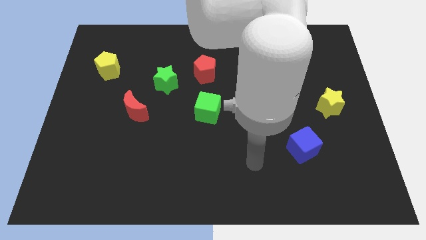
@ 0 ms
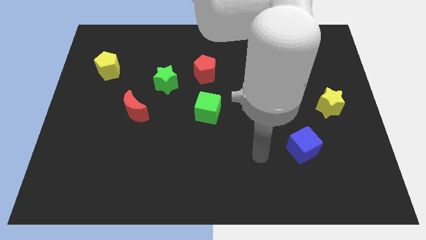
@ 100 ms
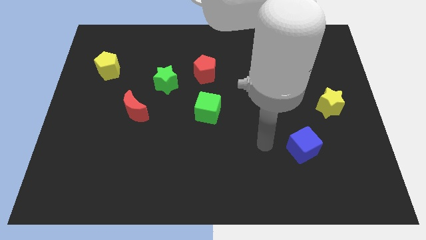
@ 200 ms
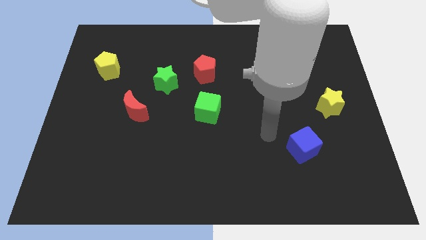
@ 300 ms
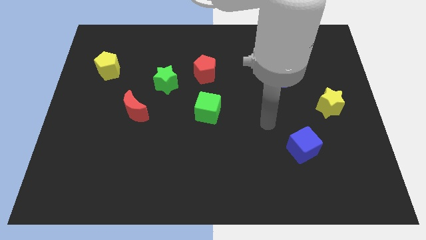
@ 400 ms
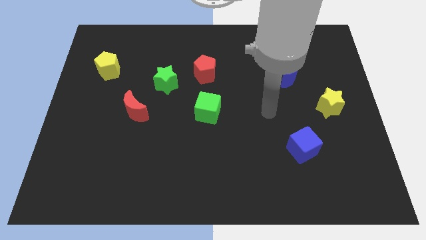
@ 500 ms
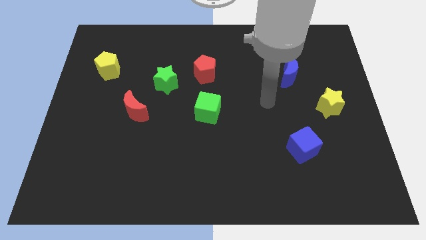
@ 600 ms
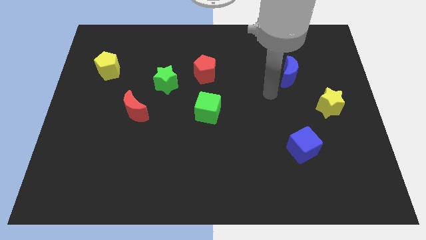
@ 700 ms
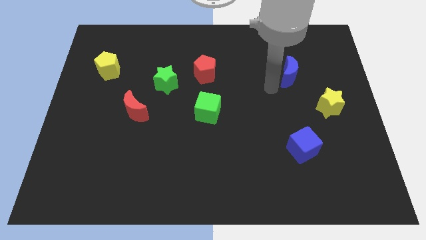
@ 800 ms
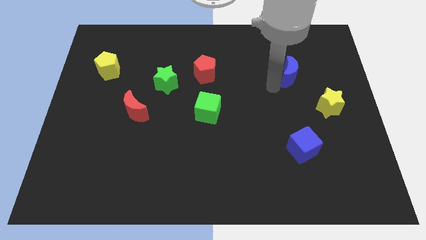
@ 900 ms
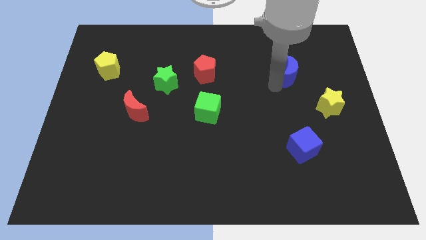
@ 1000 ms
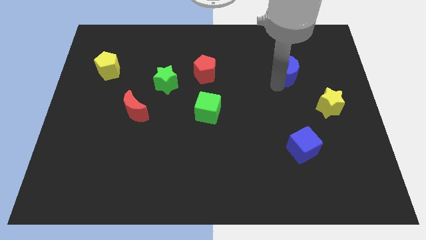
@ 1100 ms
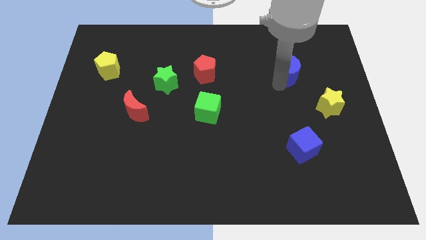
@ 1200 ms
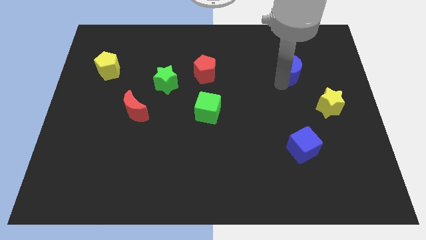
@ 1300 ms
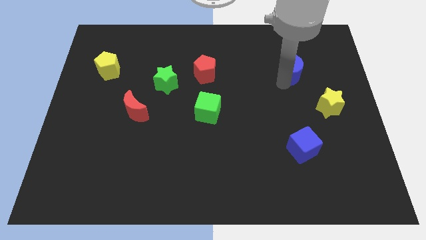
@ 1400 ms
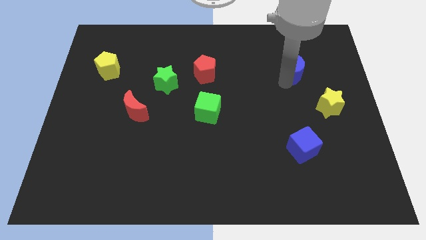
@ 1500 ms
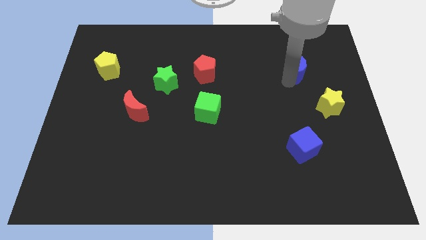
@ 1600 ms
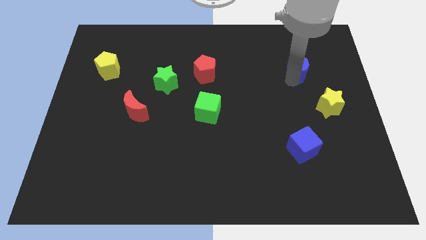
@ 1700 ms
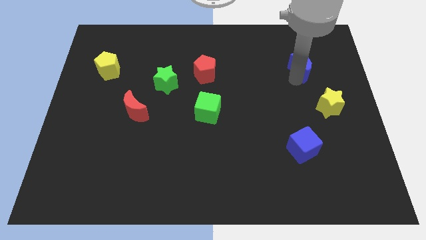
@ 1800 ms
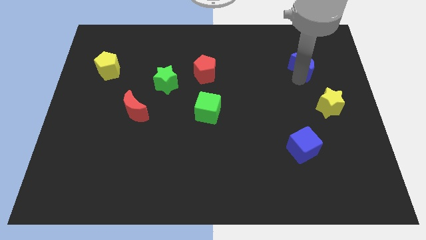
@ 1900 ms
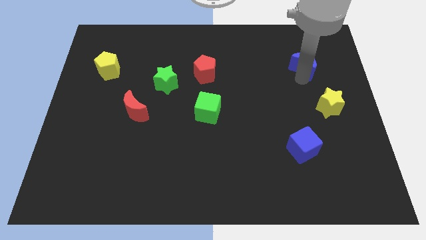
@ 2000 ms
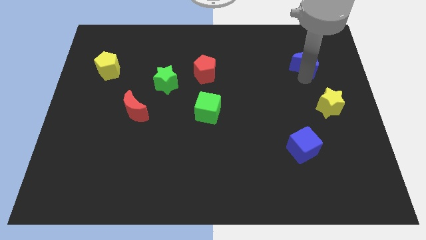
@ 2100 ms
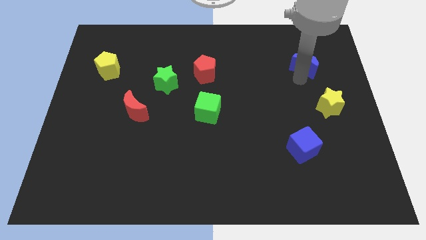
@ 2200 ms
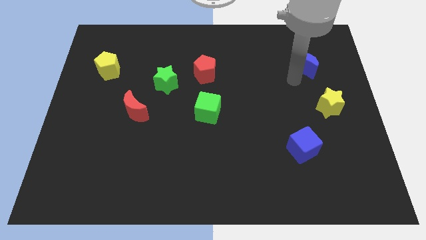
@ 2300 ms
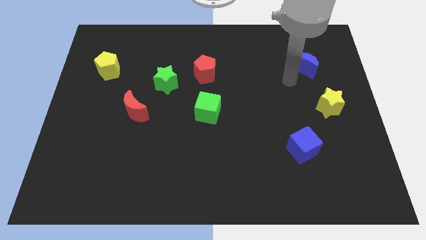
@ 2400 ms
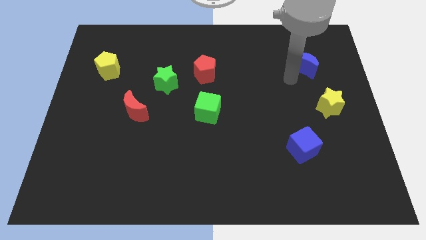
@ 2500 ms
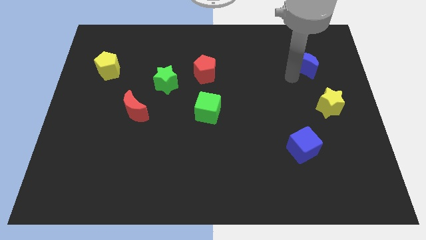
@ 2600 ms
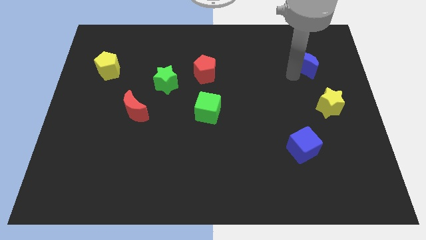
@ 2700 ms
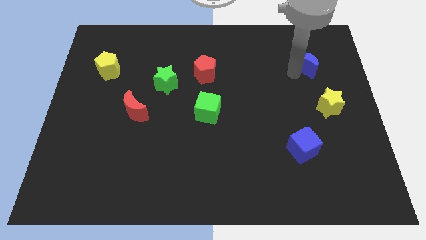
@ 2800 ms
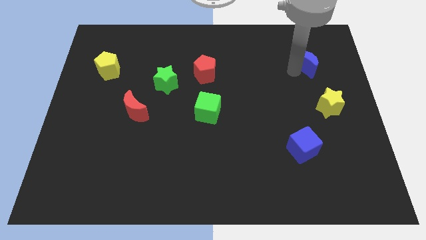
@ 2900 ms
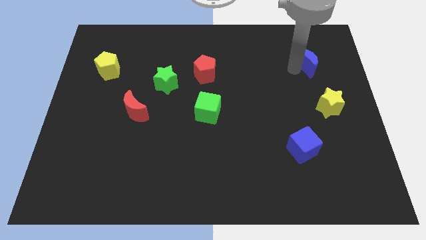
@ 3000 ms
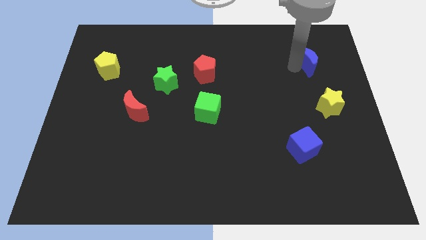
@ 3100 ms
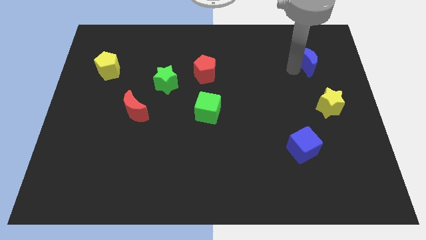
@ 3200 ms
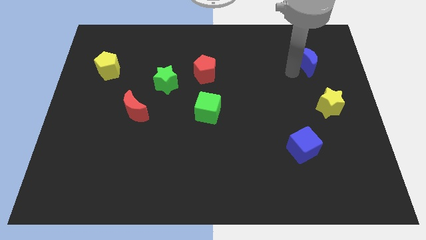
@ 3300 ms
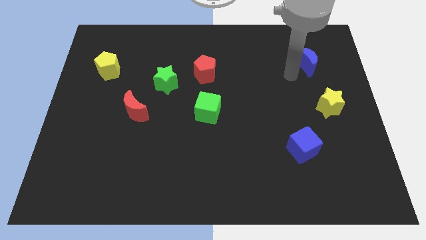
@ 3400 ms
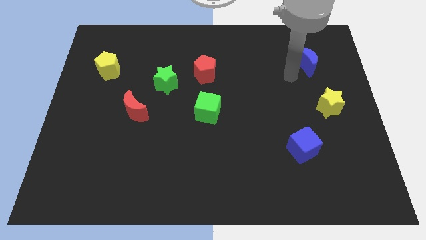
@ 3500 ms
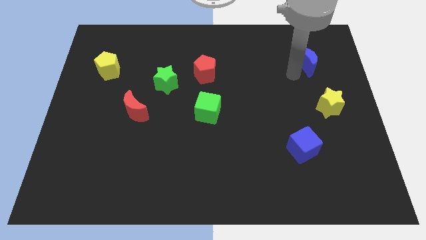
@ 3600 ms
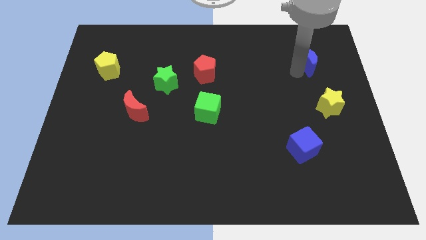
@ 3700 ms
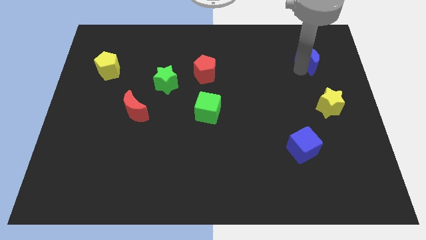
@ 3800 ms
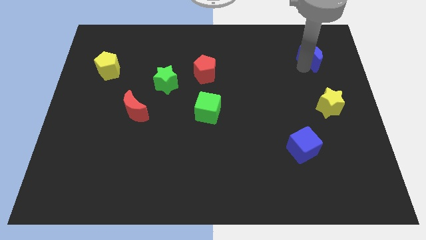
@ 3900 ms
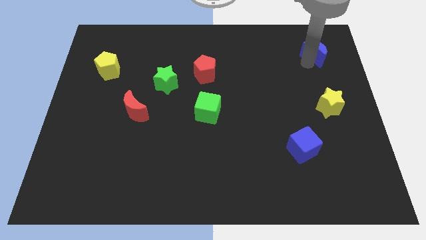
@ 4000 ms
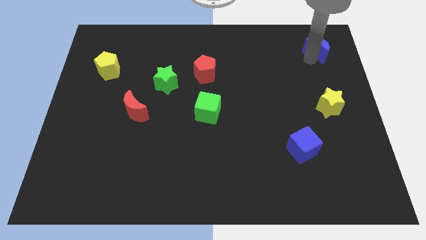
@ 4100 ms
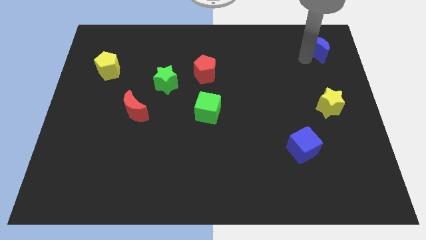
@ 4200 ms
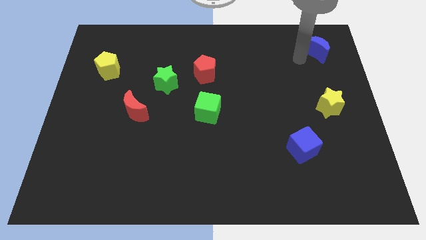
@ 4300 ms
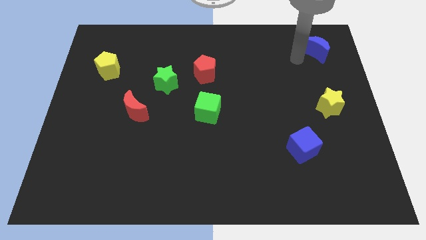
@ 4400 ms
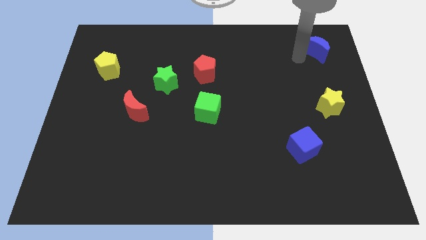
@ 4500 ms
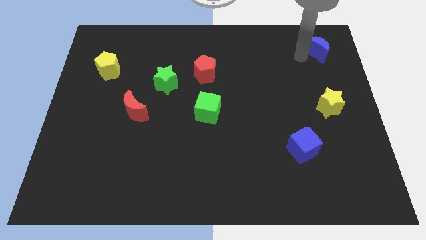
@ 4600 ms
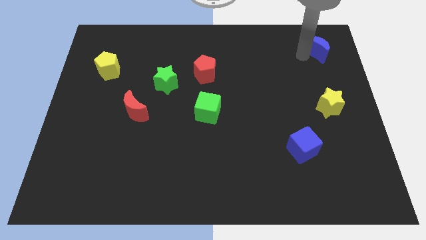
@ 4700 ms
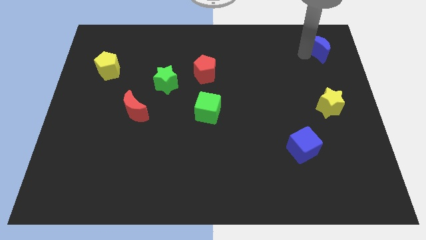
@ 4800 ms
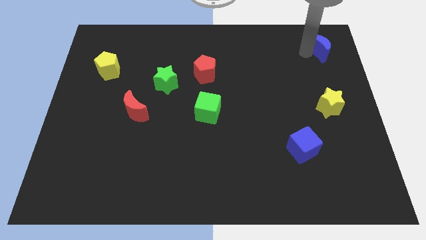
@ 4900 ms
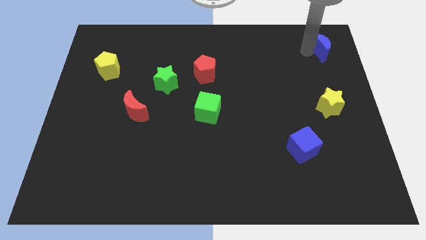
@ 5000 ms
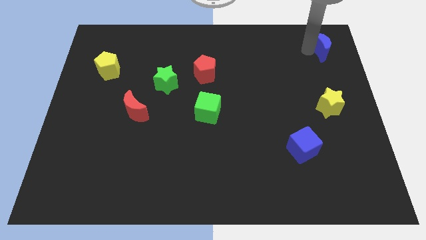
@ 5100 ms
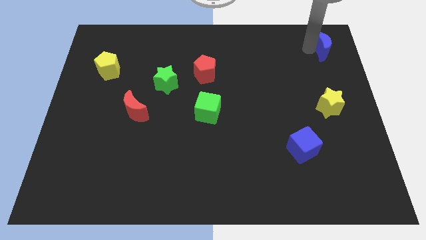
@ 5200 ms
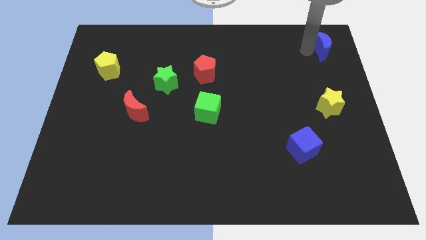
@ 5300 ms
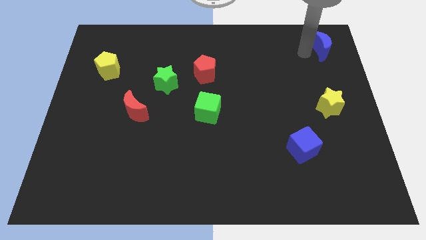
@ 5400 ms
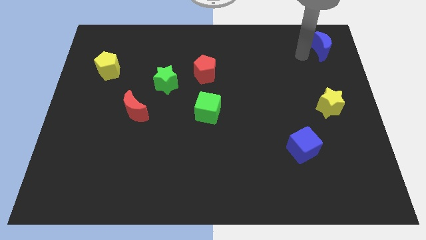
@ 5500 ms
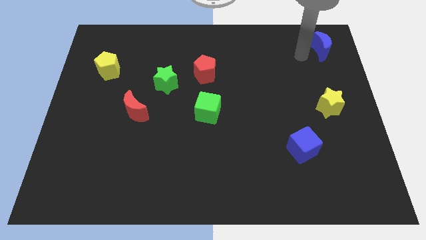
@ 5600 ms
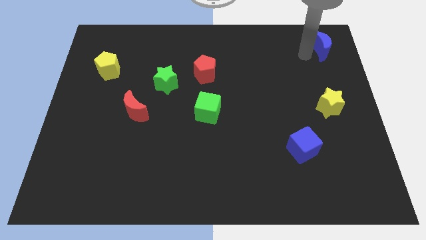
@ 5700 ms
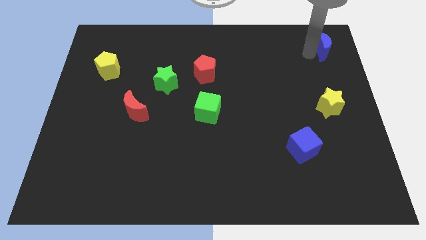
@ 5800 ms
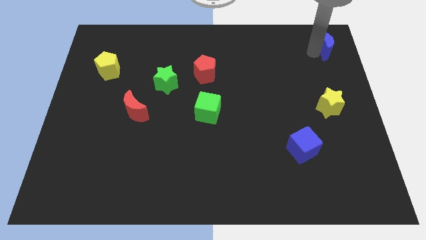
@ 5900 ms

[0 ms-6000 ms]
put the blue moon to the top right corner

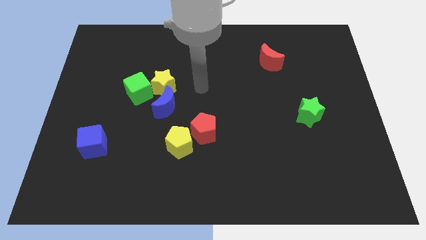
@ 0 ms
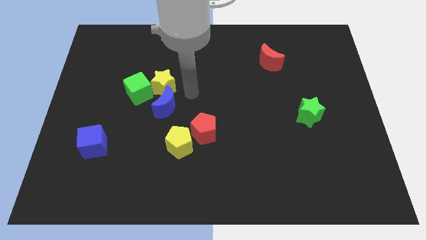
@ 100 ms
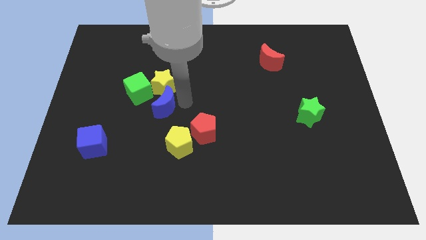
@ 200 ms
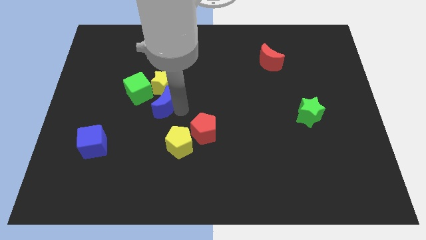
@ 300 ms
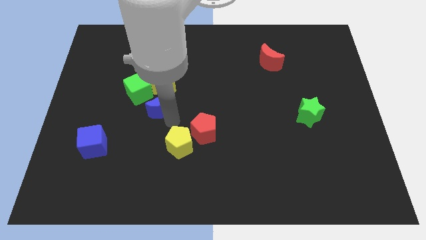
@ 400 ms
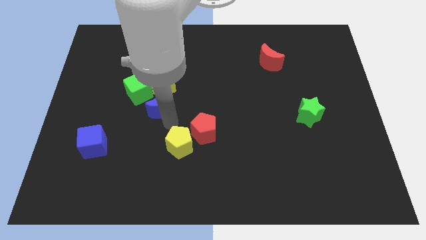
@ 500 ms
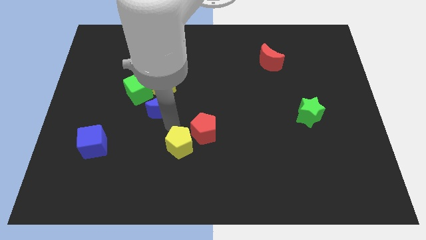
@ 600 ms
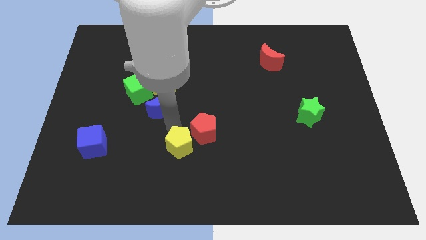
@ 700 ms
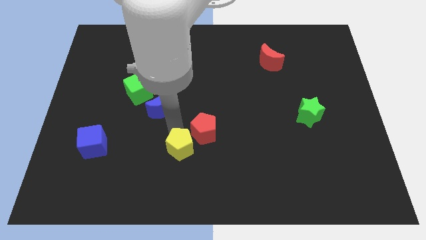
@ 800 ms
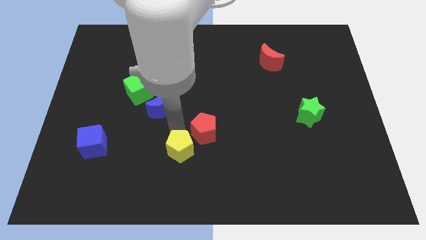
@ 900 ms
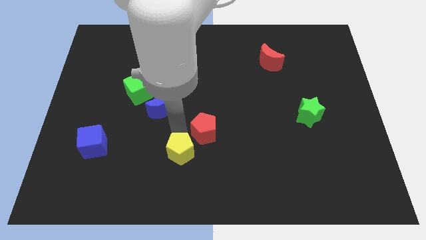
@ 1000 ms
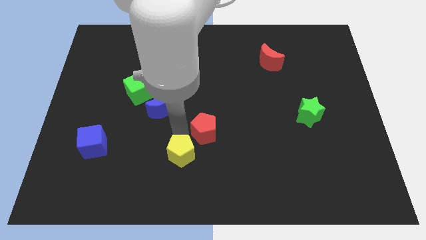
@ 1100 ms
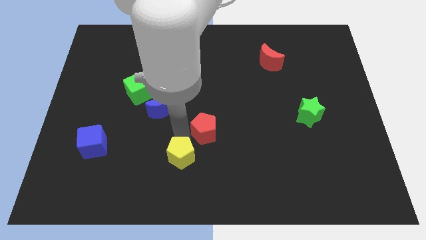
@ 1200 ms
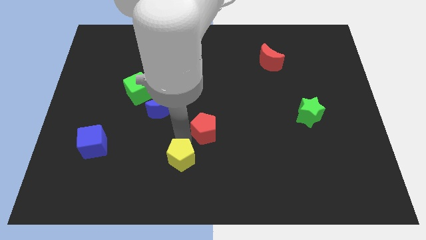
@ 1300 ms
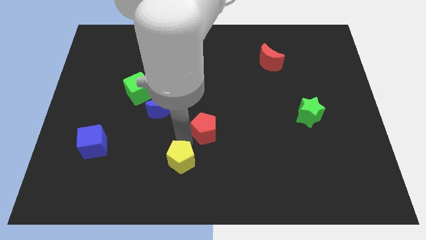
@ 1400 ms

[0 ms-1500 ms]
push the yellow pentagon to the bottom
